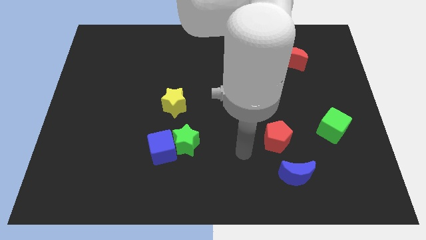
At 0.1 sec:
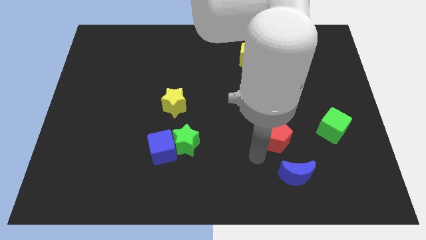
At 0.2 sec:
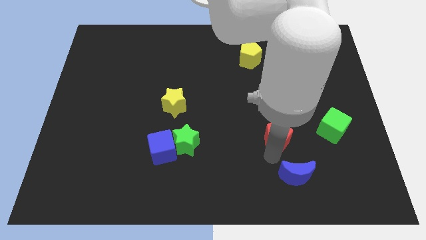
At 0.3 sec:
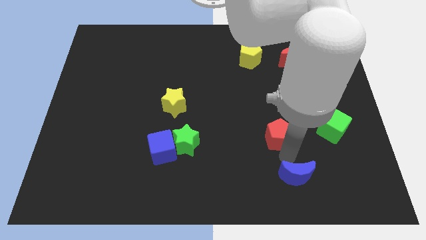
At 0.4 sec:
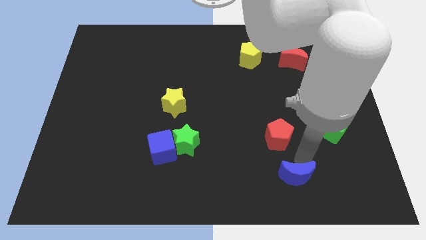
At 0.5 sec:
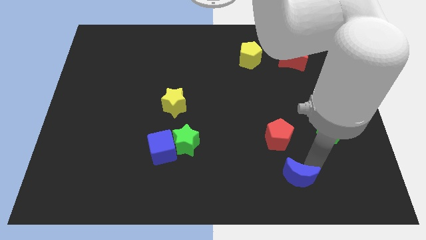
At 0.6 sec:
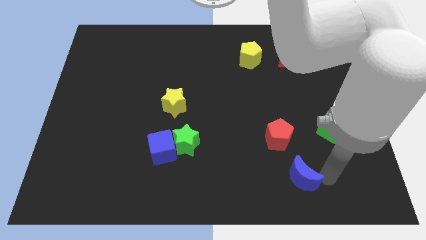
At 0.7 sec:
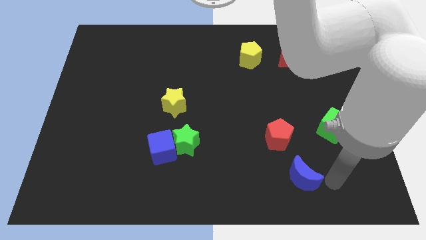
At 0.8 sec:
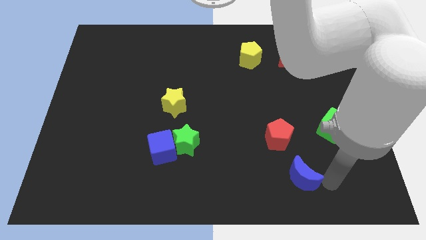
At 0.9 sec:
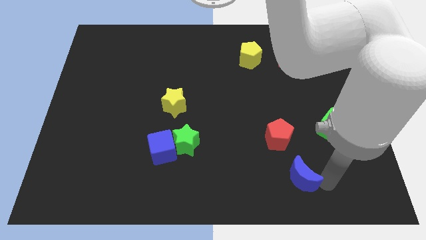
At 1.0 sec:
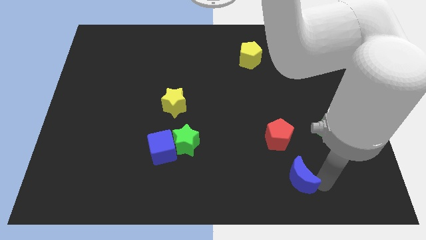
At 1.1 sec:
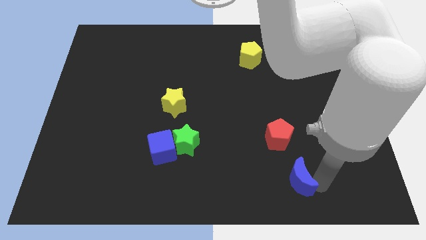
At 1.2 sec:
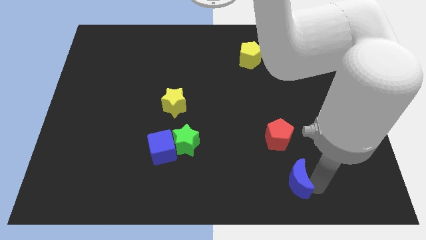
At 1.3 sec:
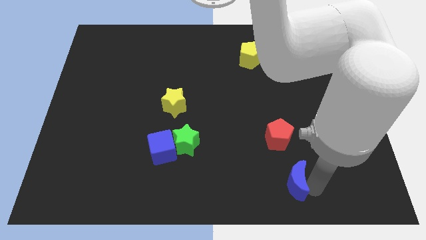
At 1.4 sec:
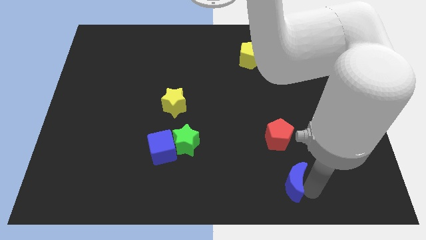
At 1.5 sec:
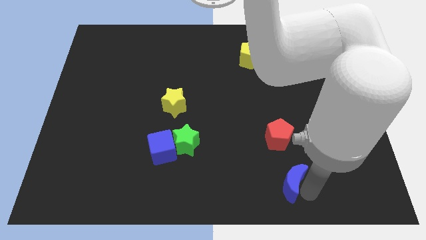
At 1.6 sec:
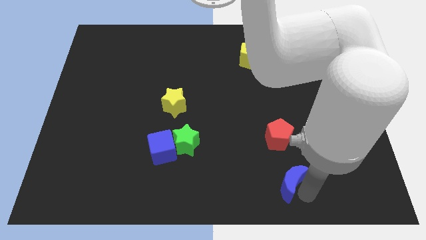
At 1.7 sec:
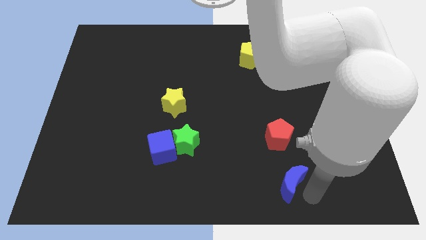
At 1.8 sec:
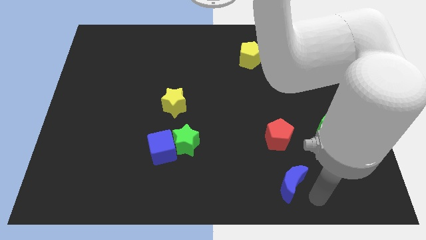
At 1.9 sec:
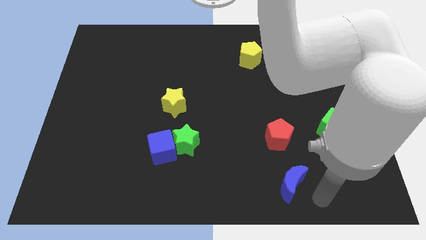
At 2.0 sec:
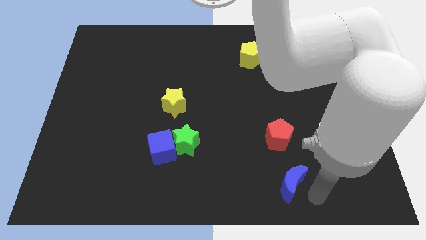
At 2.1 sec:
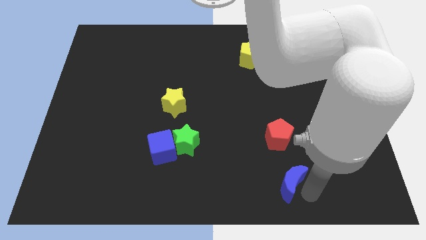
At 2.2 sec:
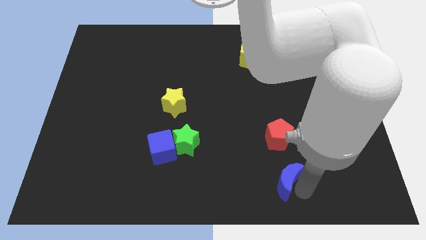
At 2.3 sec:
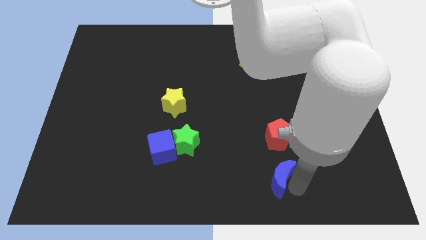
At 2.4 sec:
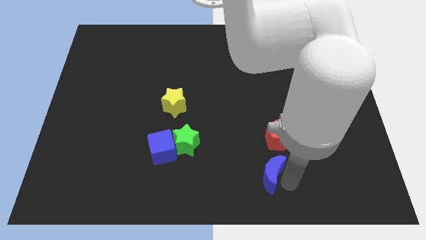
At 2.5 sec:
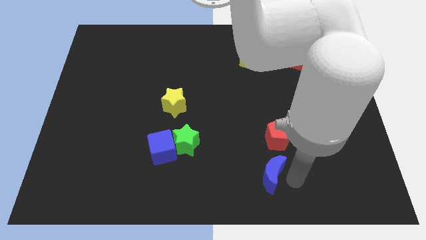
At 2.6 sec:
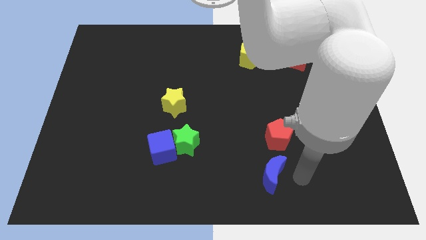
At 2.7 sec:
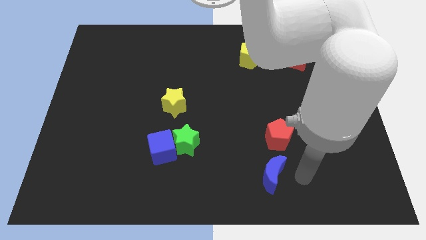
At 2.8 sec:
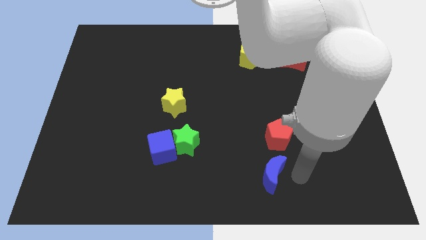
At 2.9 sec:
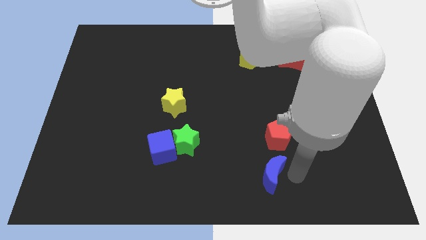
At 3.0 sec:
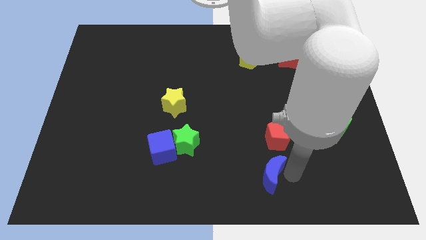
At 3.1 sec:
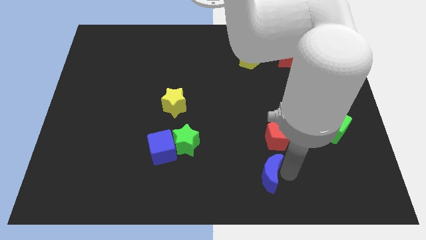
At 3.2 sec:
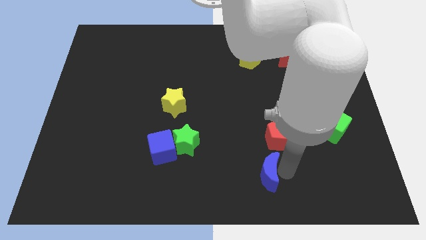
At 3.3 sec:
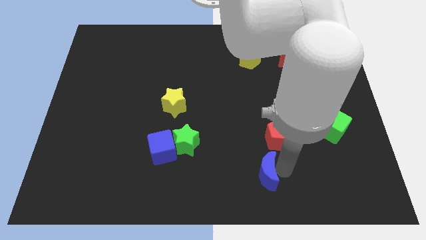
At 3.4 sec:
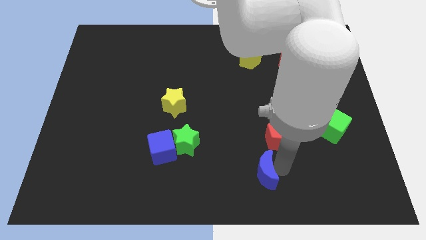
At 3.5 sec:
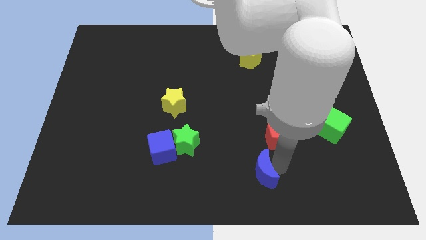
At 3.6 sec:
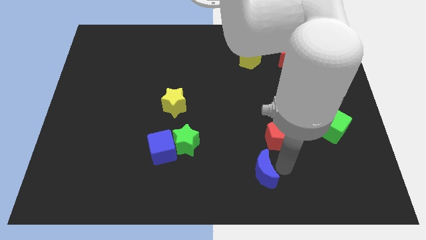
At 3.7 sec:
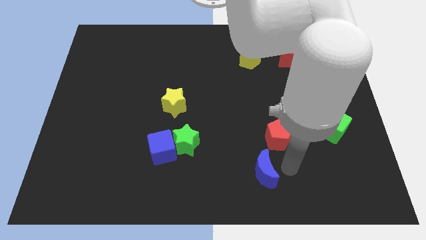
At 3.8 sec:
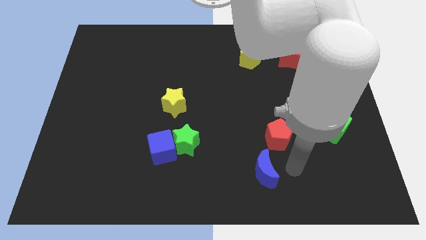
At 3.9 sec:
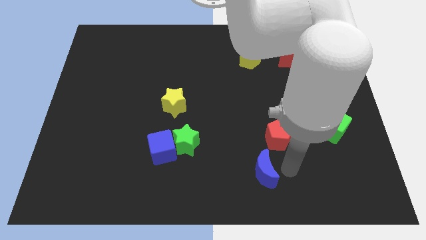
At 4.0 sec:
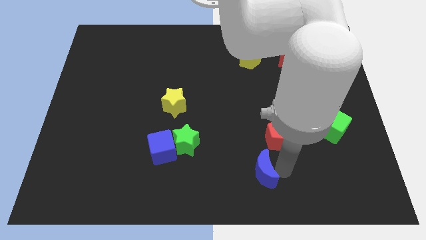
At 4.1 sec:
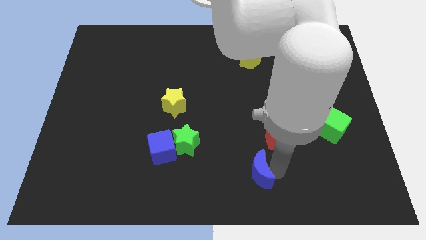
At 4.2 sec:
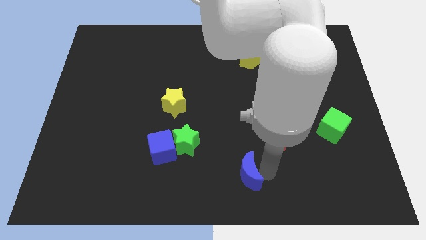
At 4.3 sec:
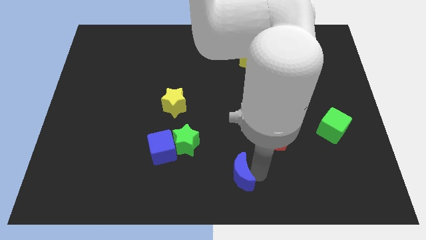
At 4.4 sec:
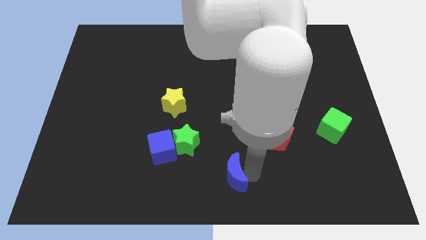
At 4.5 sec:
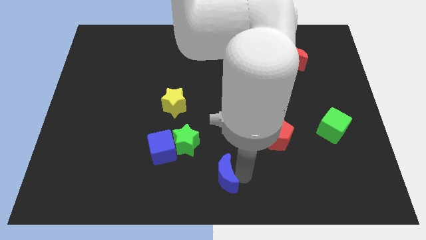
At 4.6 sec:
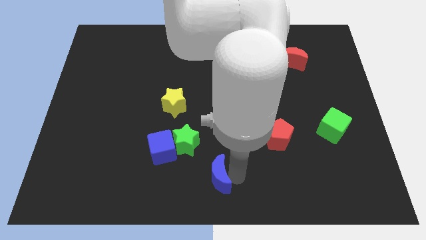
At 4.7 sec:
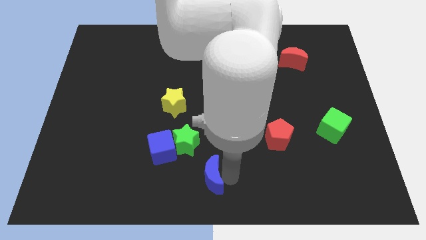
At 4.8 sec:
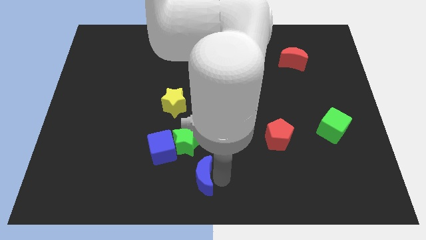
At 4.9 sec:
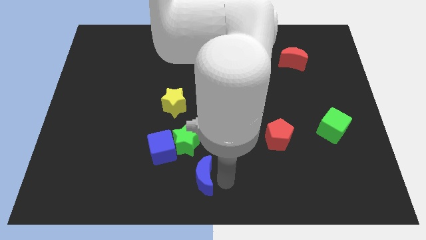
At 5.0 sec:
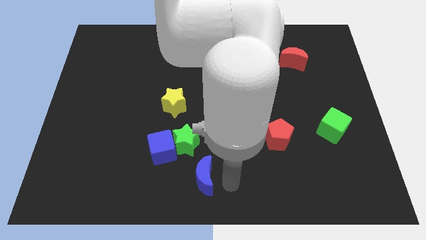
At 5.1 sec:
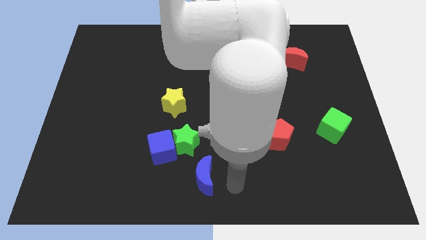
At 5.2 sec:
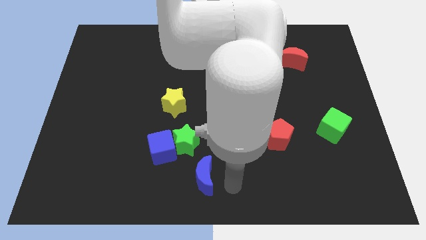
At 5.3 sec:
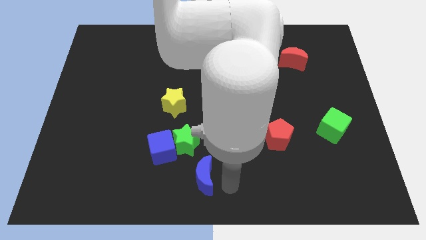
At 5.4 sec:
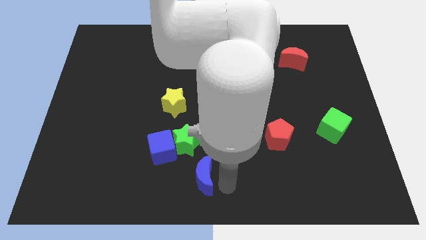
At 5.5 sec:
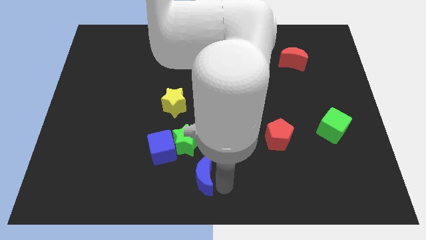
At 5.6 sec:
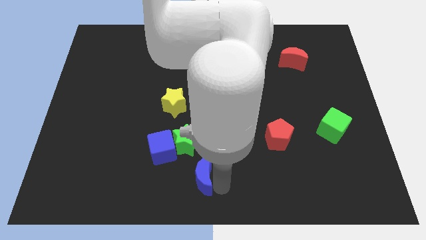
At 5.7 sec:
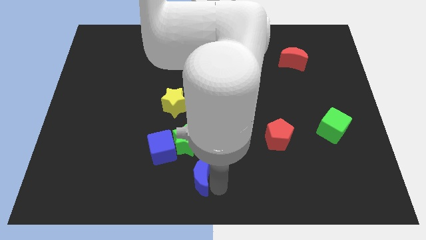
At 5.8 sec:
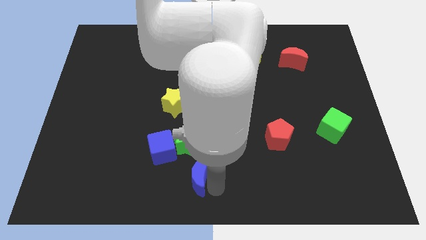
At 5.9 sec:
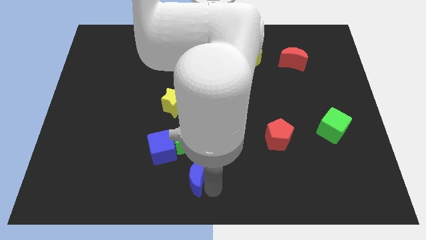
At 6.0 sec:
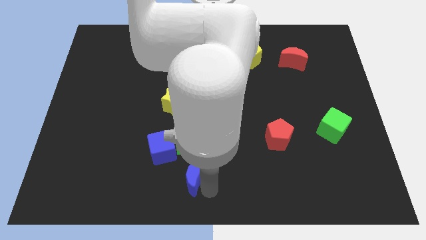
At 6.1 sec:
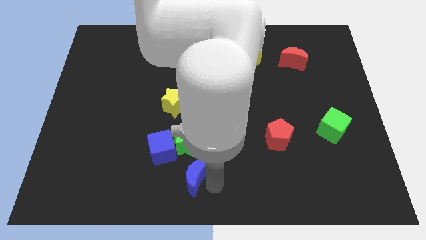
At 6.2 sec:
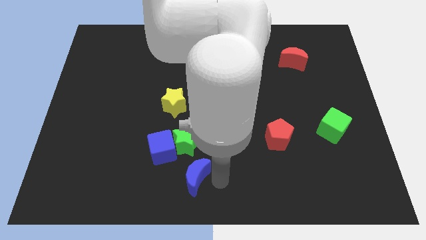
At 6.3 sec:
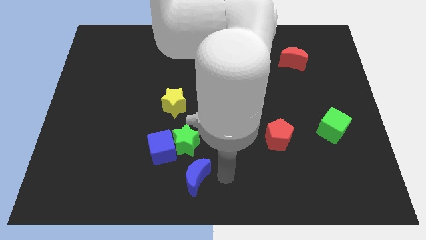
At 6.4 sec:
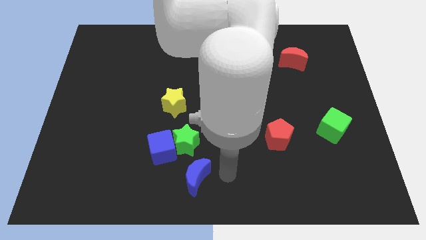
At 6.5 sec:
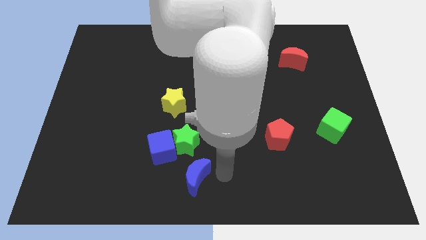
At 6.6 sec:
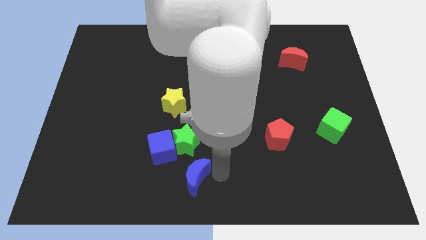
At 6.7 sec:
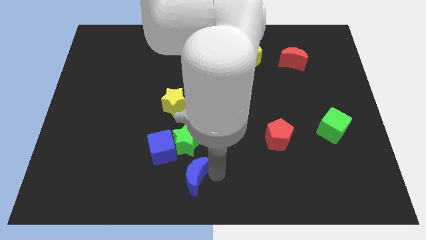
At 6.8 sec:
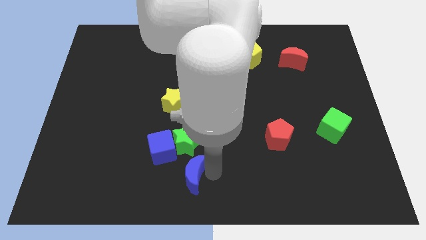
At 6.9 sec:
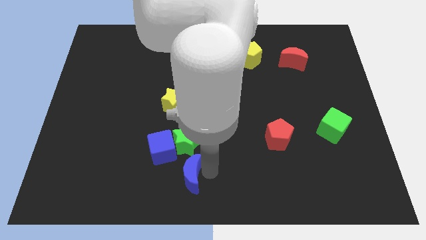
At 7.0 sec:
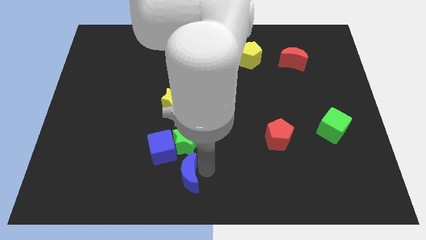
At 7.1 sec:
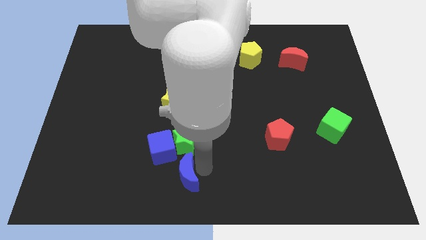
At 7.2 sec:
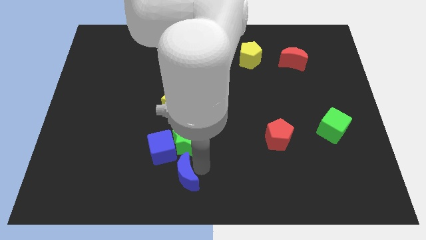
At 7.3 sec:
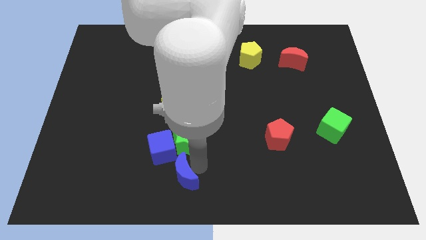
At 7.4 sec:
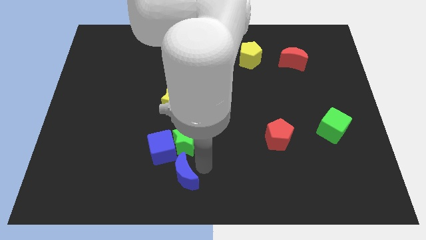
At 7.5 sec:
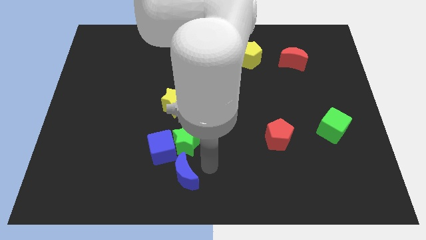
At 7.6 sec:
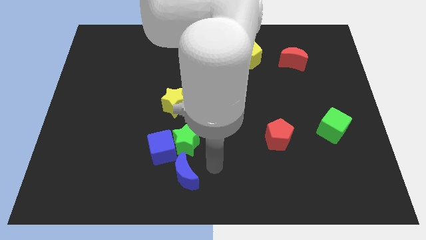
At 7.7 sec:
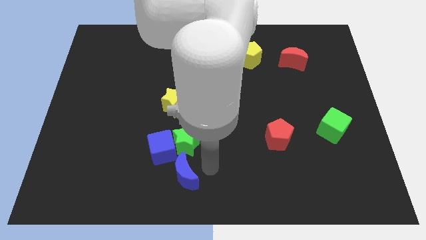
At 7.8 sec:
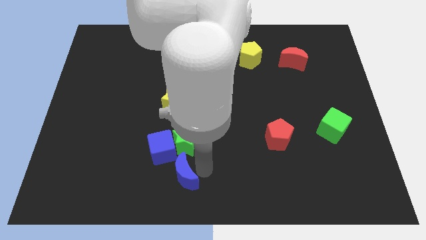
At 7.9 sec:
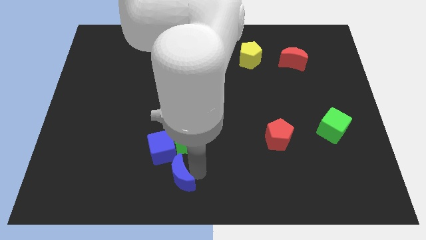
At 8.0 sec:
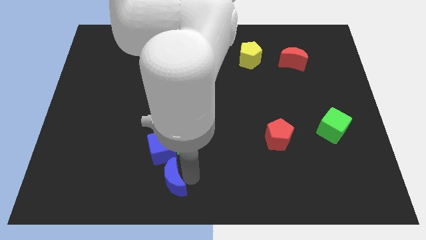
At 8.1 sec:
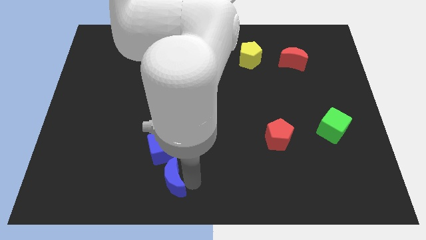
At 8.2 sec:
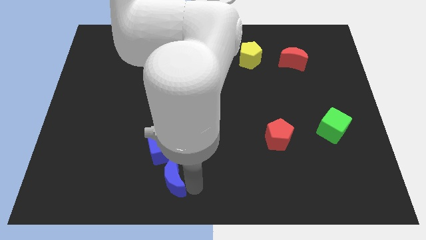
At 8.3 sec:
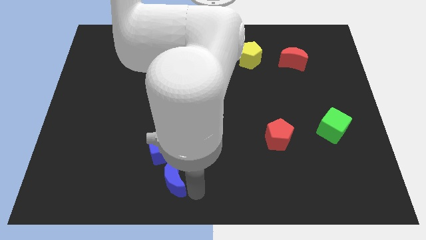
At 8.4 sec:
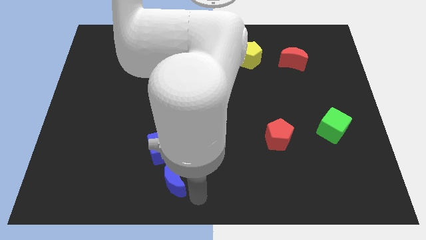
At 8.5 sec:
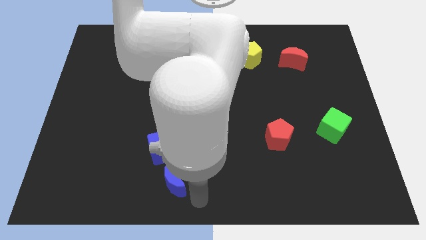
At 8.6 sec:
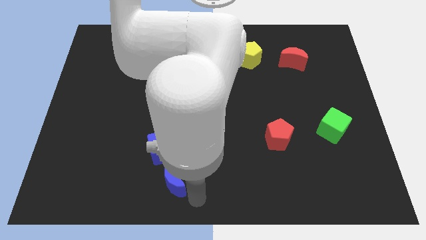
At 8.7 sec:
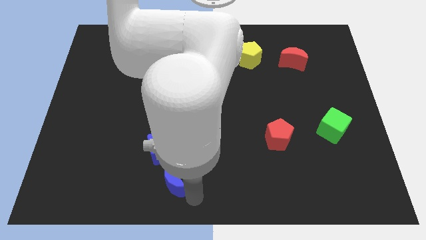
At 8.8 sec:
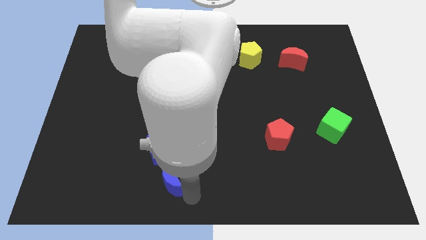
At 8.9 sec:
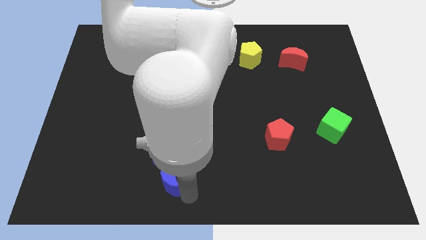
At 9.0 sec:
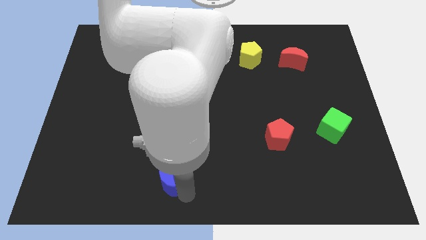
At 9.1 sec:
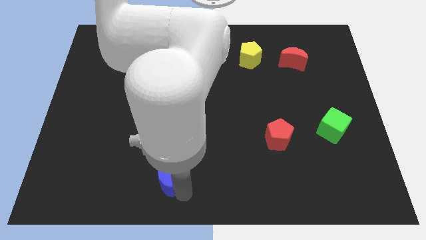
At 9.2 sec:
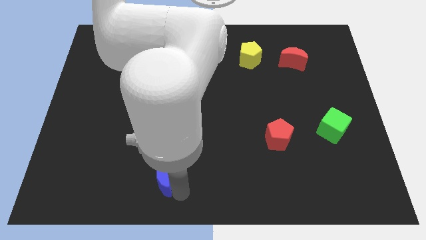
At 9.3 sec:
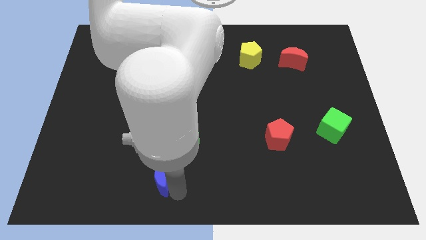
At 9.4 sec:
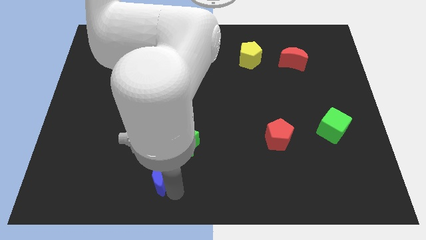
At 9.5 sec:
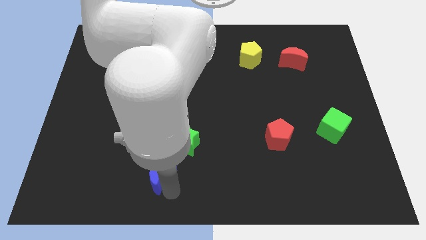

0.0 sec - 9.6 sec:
slide the blue moon close to the blue cube
